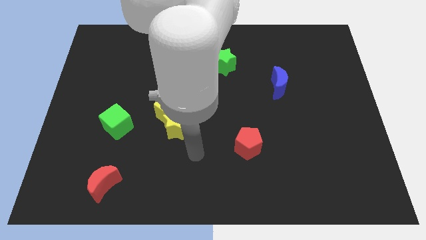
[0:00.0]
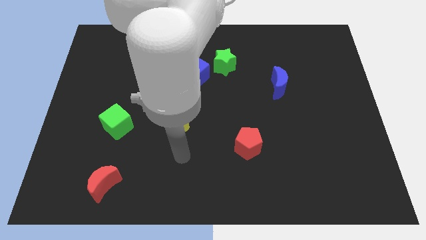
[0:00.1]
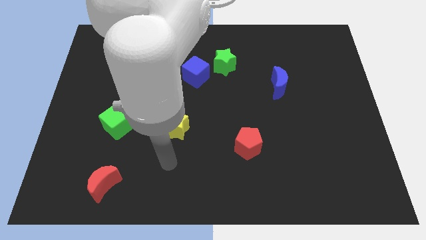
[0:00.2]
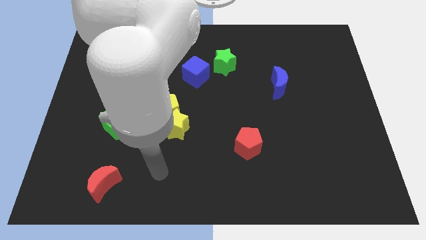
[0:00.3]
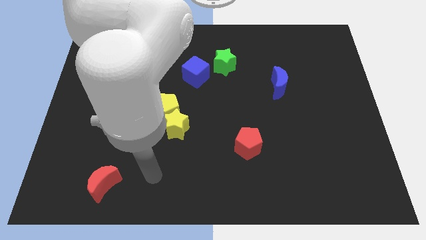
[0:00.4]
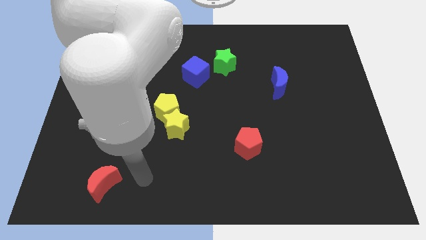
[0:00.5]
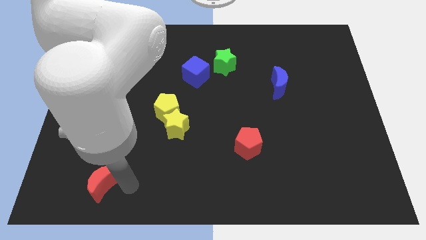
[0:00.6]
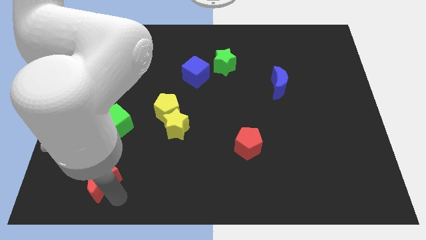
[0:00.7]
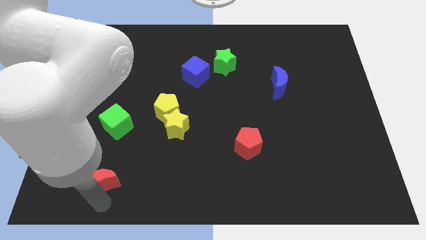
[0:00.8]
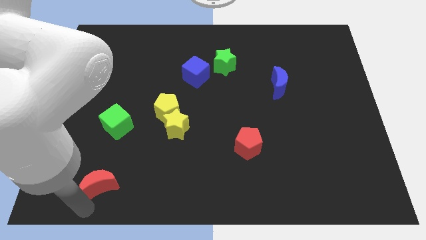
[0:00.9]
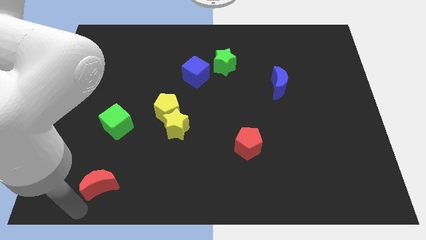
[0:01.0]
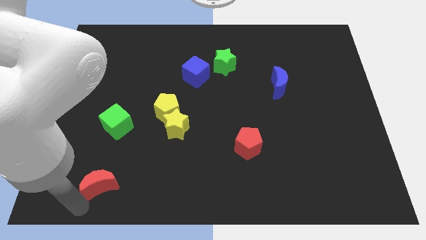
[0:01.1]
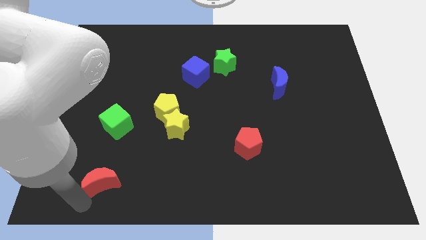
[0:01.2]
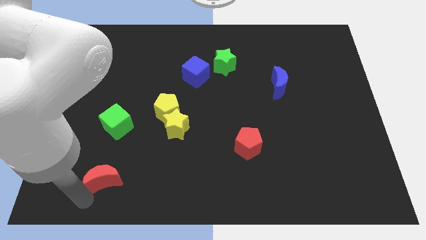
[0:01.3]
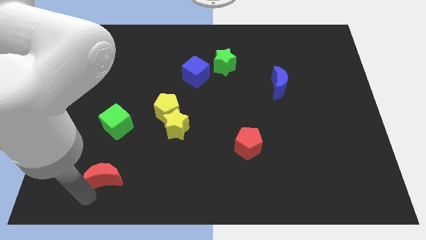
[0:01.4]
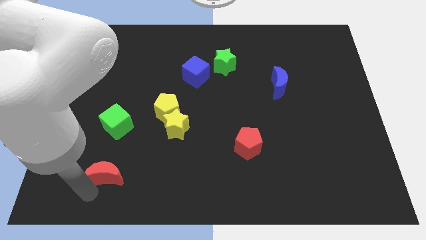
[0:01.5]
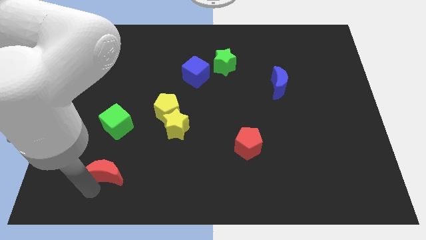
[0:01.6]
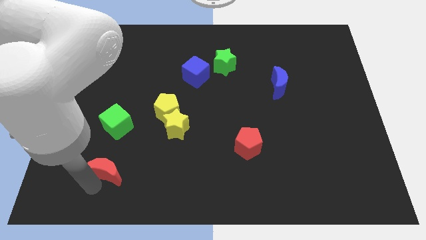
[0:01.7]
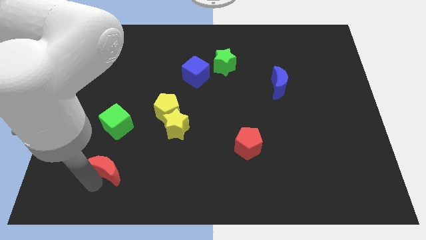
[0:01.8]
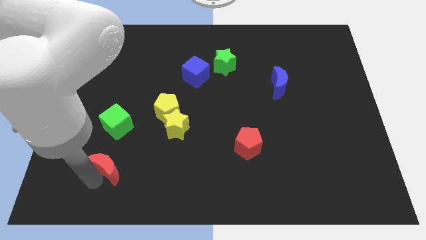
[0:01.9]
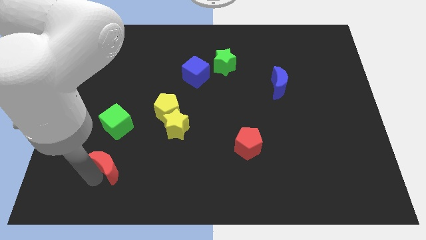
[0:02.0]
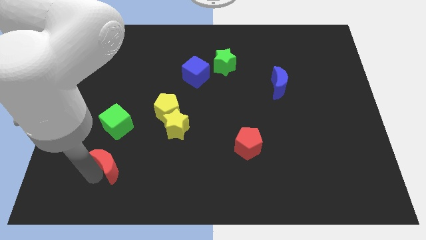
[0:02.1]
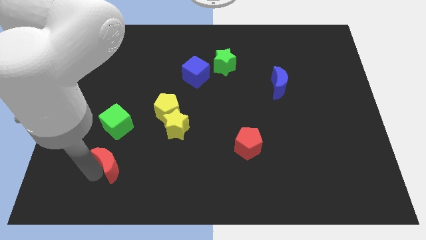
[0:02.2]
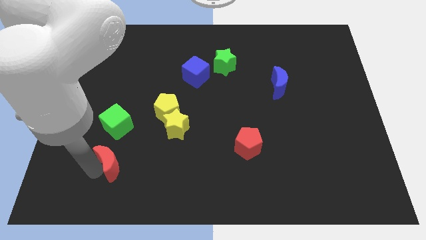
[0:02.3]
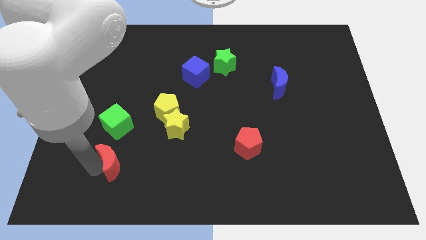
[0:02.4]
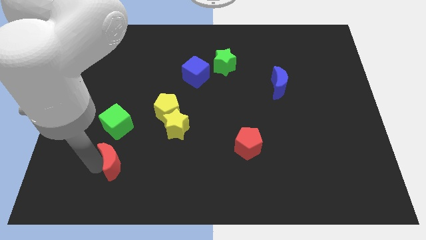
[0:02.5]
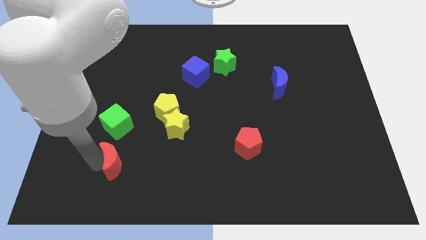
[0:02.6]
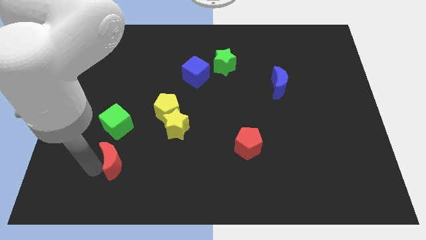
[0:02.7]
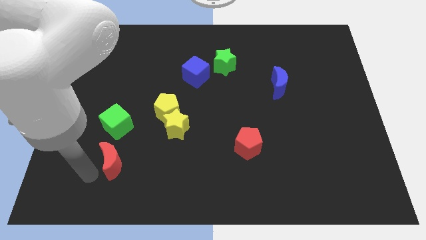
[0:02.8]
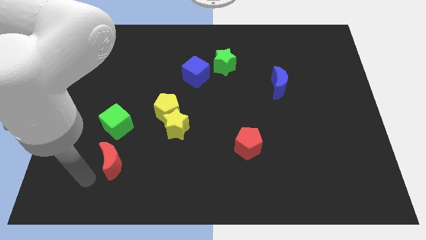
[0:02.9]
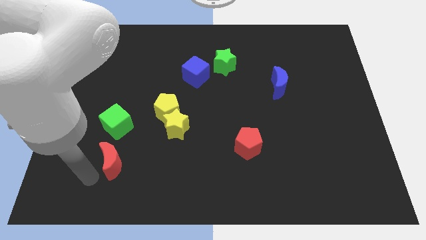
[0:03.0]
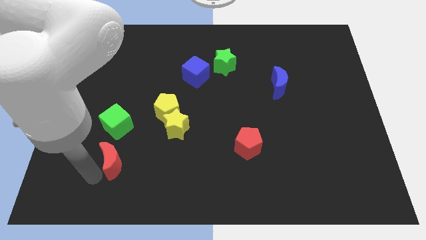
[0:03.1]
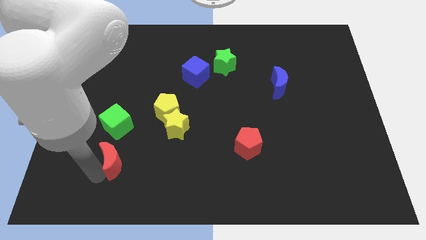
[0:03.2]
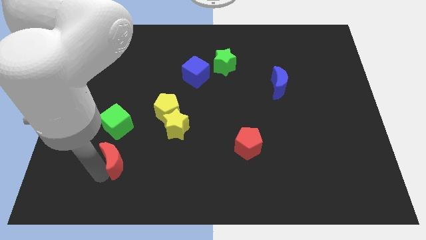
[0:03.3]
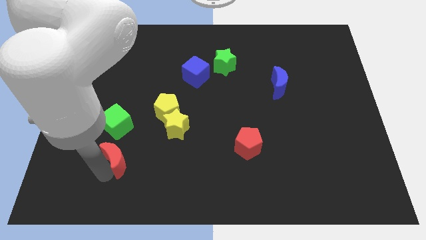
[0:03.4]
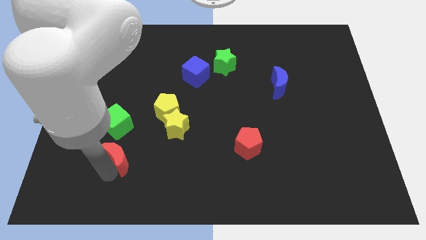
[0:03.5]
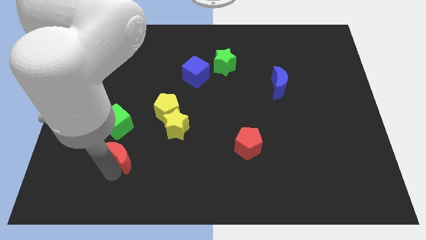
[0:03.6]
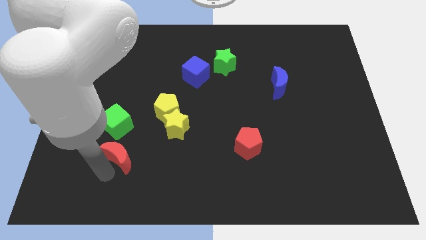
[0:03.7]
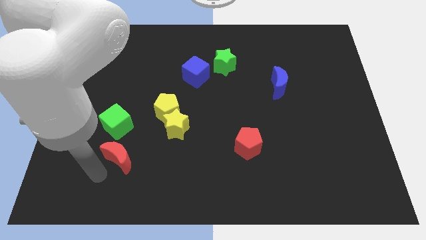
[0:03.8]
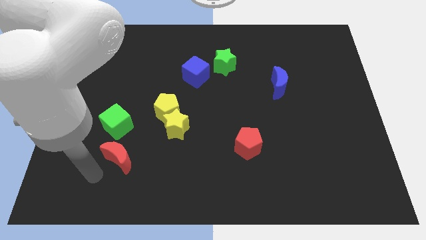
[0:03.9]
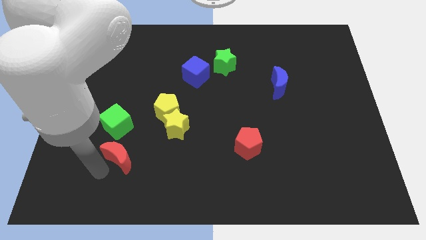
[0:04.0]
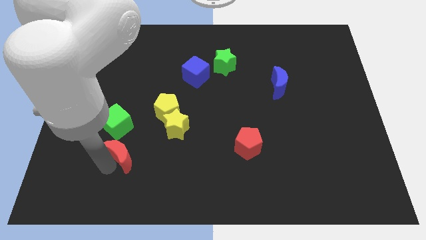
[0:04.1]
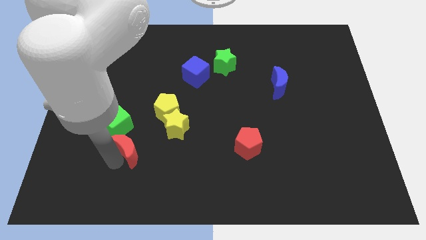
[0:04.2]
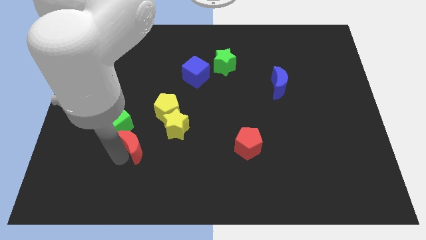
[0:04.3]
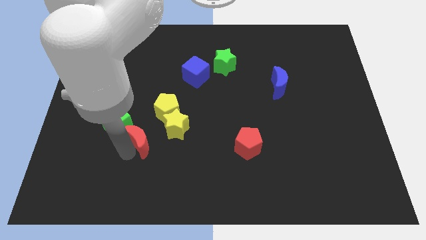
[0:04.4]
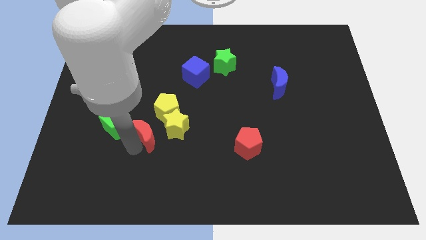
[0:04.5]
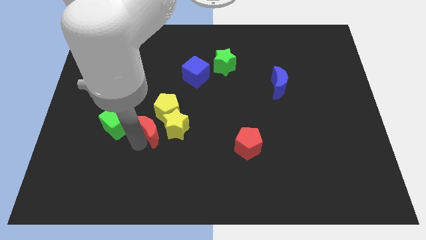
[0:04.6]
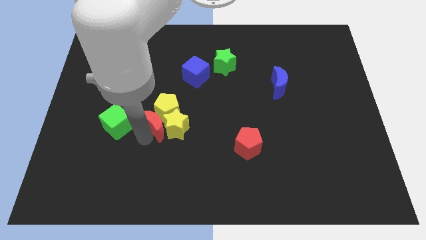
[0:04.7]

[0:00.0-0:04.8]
move the red moon next to the yellow pentagon

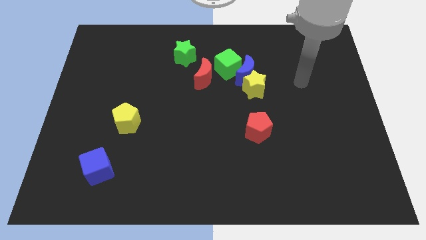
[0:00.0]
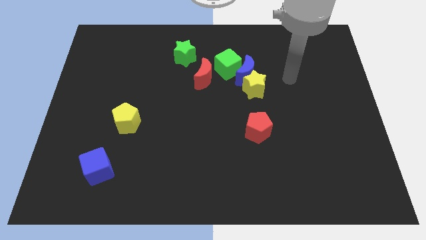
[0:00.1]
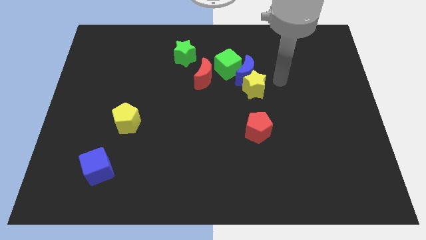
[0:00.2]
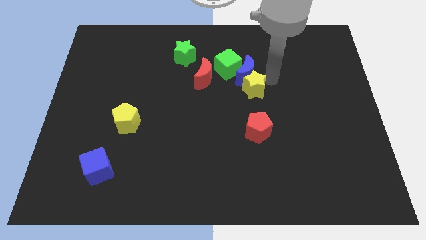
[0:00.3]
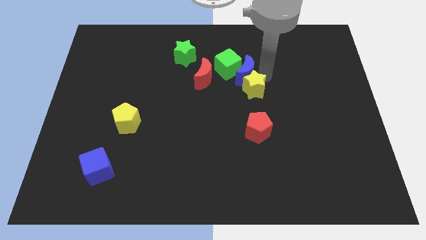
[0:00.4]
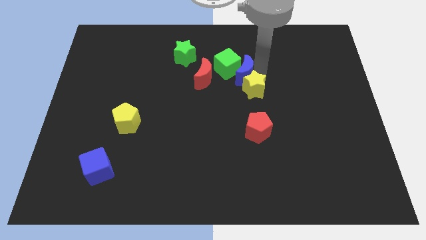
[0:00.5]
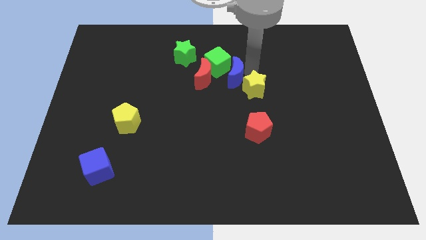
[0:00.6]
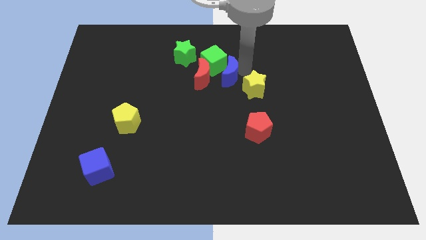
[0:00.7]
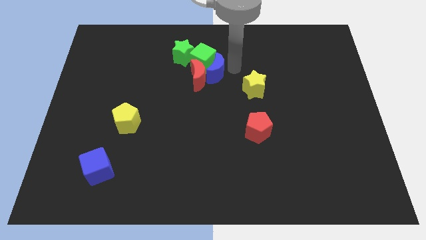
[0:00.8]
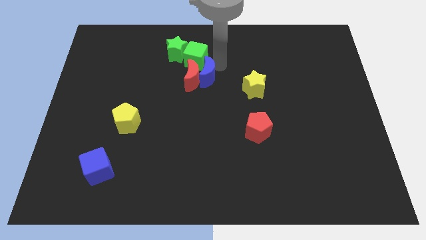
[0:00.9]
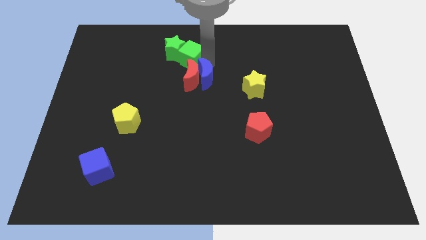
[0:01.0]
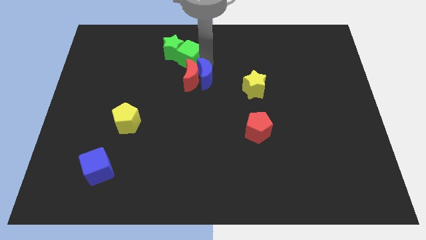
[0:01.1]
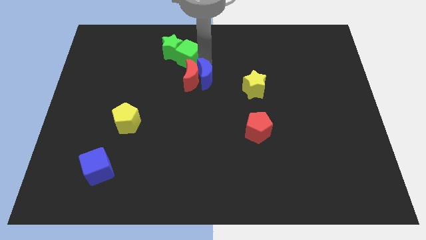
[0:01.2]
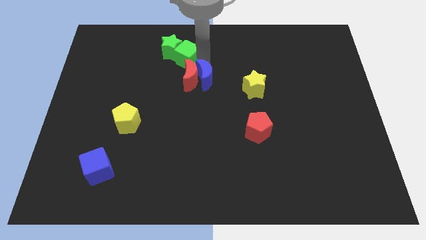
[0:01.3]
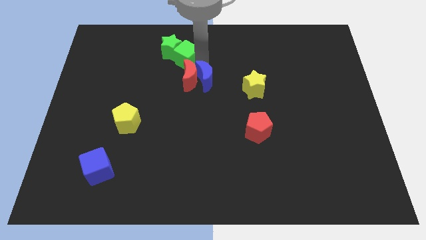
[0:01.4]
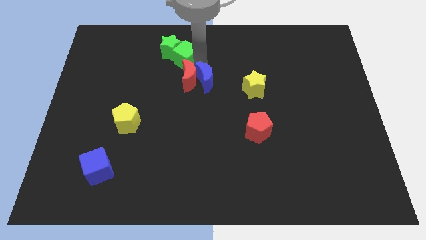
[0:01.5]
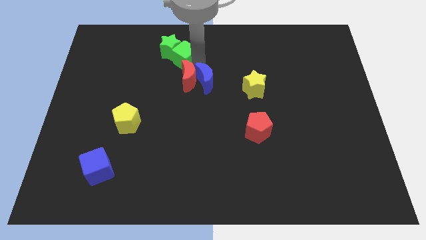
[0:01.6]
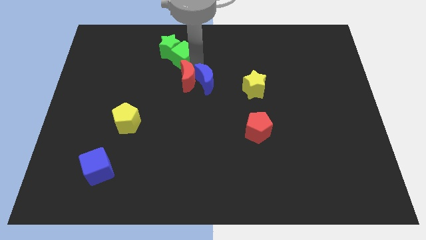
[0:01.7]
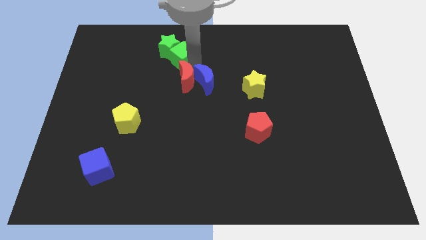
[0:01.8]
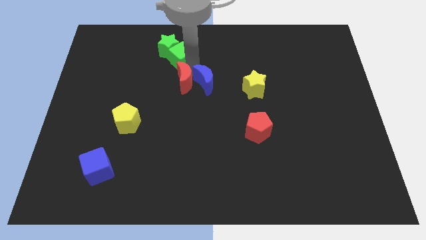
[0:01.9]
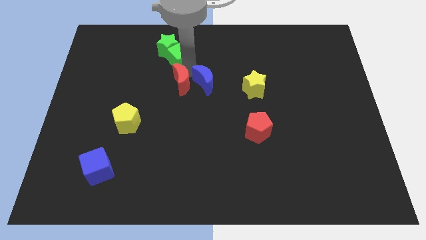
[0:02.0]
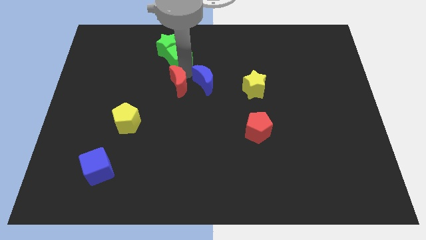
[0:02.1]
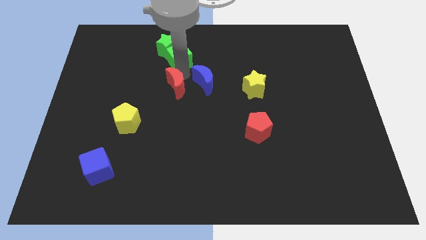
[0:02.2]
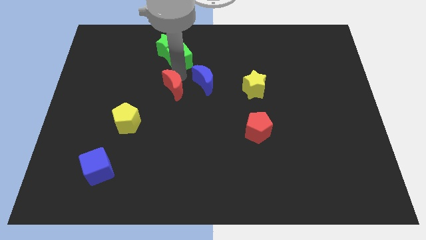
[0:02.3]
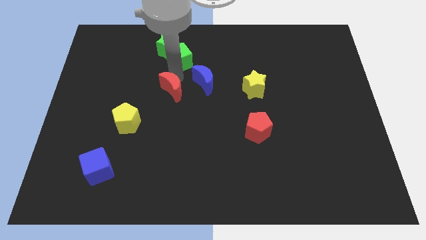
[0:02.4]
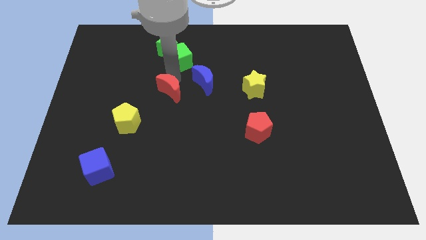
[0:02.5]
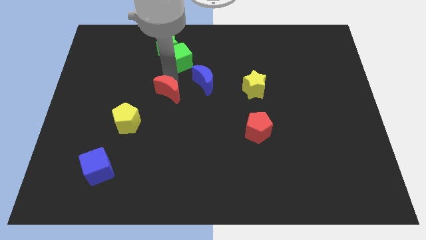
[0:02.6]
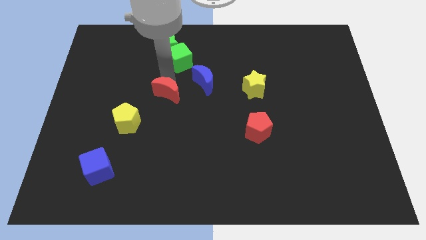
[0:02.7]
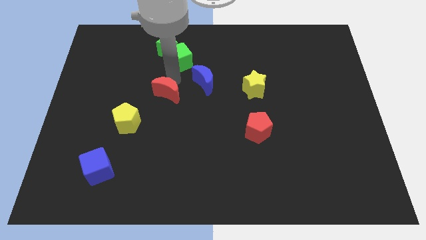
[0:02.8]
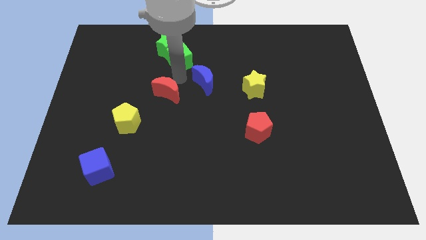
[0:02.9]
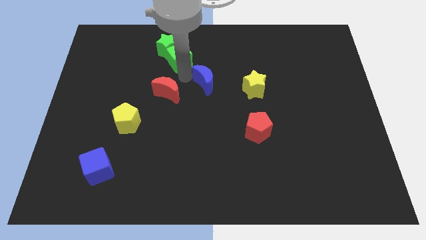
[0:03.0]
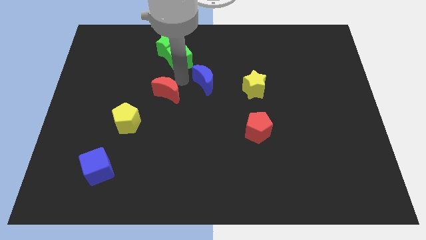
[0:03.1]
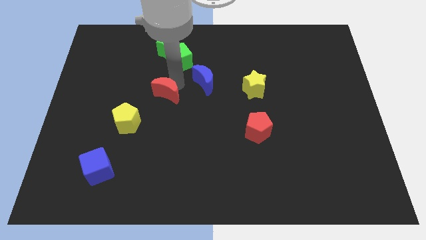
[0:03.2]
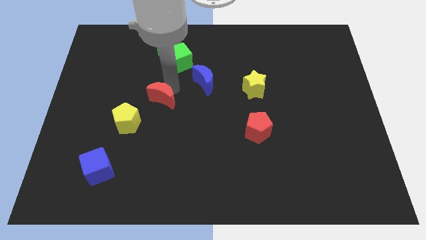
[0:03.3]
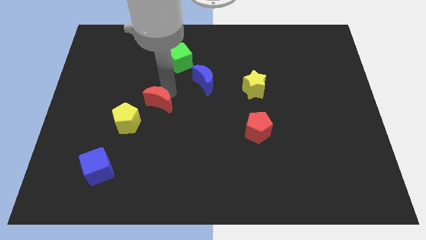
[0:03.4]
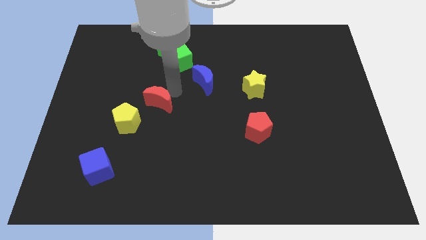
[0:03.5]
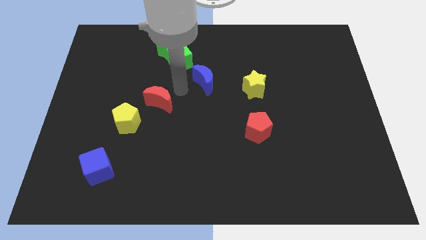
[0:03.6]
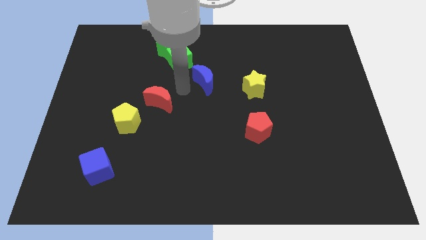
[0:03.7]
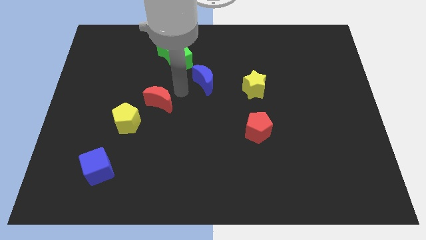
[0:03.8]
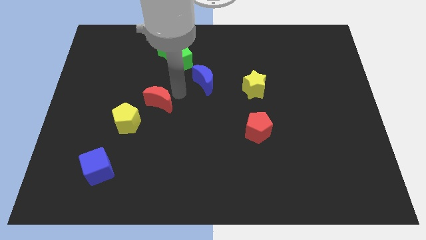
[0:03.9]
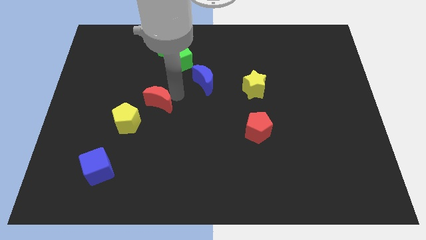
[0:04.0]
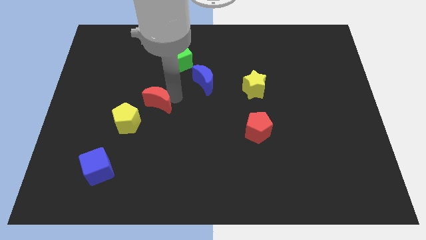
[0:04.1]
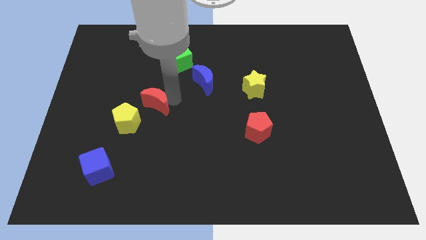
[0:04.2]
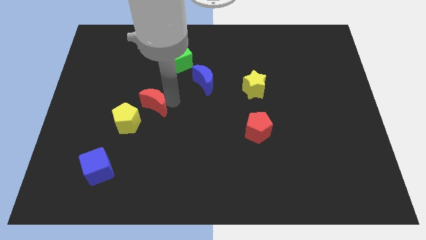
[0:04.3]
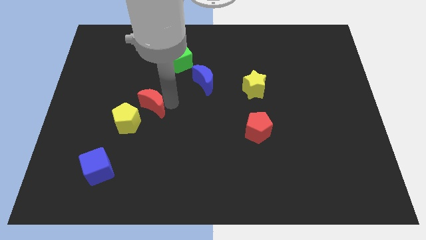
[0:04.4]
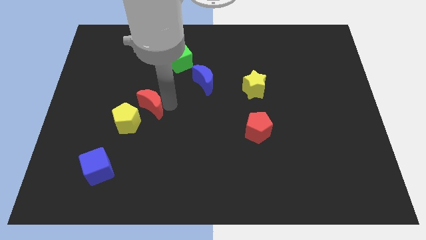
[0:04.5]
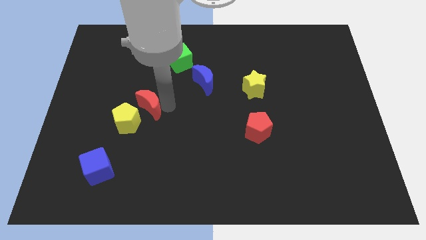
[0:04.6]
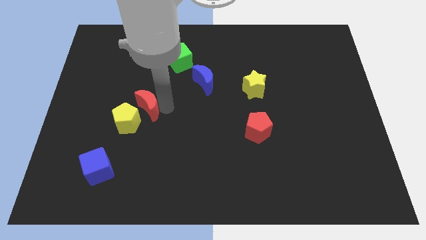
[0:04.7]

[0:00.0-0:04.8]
slide the red moon close to the yellow pentagon
